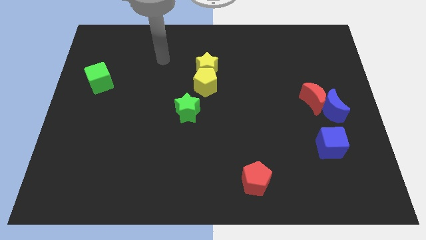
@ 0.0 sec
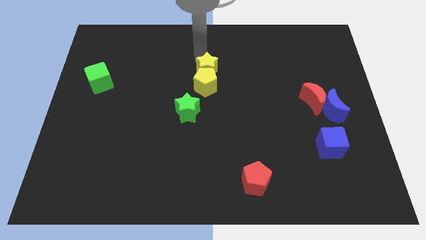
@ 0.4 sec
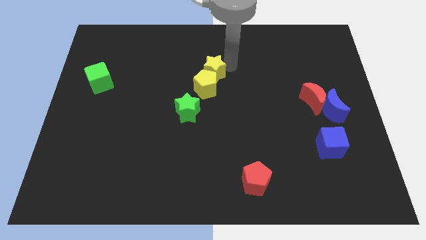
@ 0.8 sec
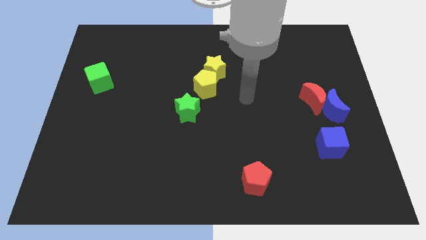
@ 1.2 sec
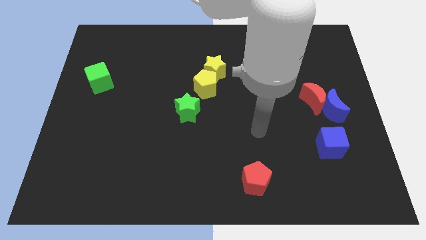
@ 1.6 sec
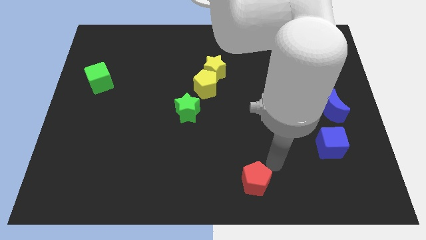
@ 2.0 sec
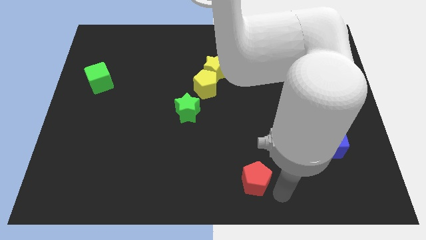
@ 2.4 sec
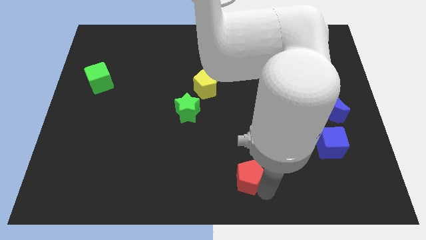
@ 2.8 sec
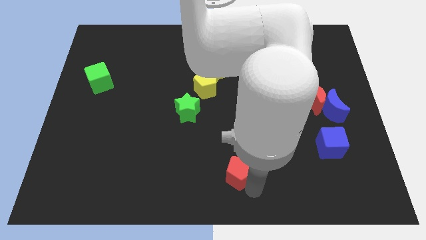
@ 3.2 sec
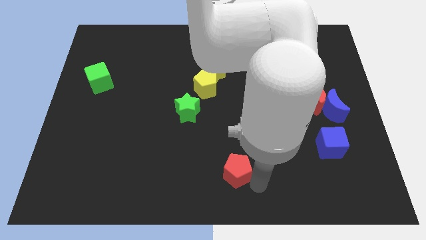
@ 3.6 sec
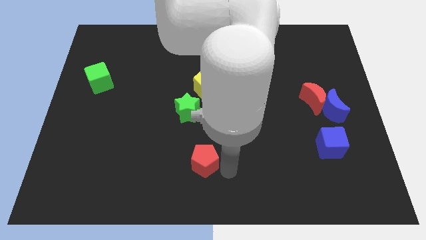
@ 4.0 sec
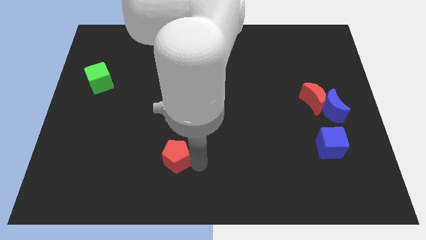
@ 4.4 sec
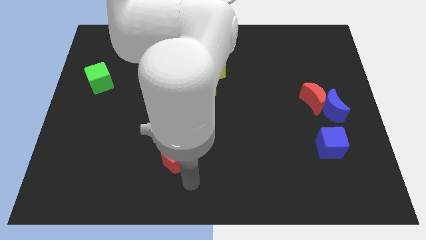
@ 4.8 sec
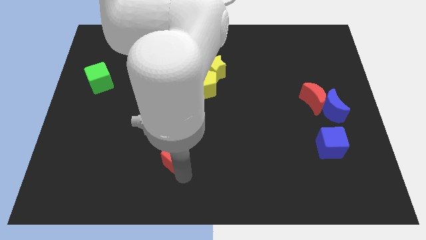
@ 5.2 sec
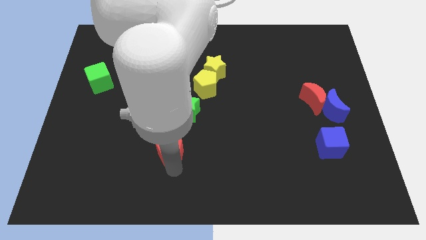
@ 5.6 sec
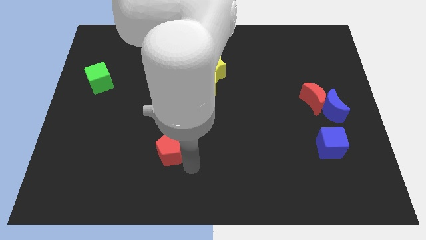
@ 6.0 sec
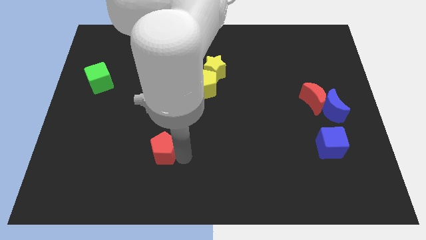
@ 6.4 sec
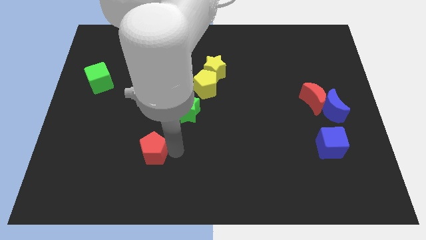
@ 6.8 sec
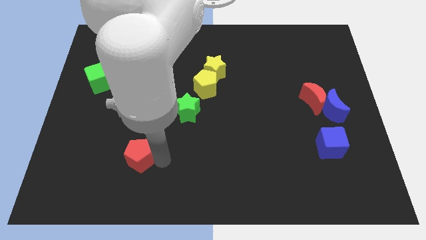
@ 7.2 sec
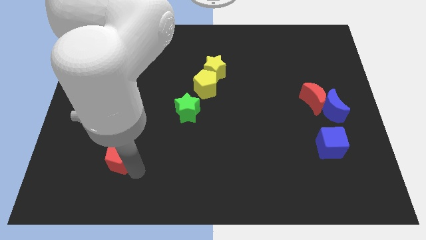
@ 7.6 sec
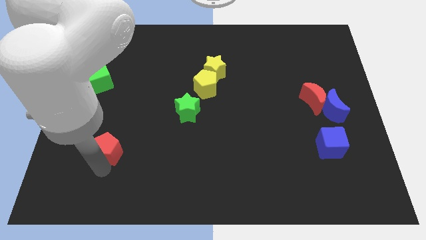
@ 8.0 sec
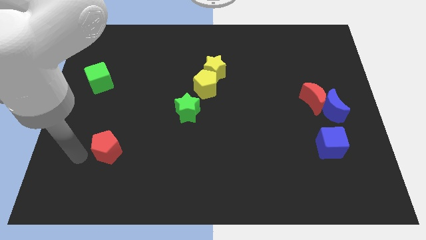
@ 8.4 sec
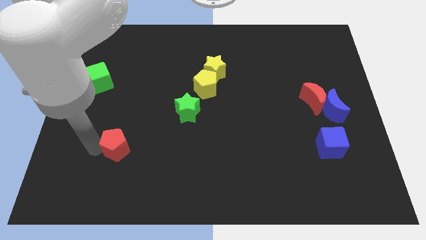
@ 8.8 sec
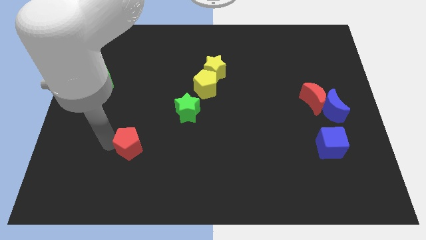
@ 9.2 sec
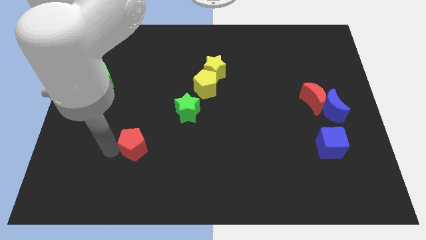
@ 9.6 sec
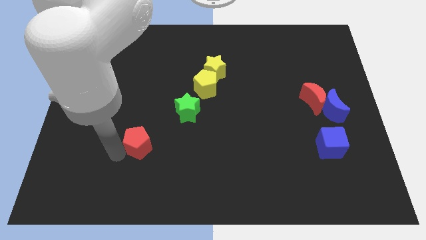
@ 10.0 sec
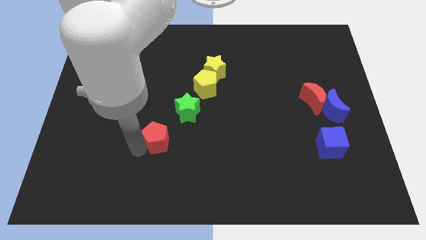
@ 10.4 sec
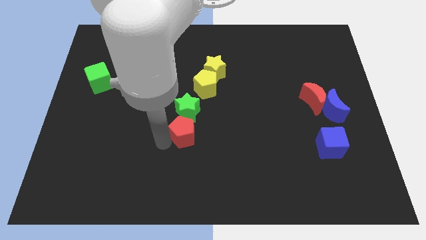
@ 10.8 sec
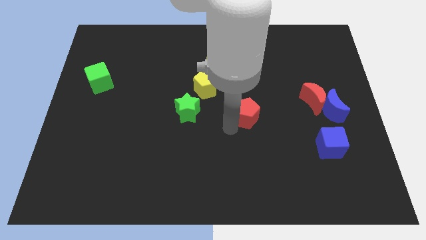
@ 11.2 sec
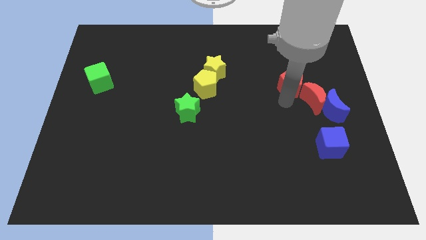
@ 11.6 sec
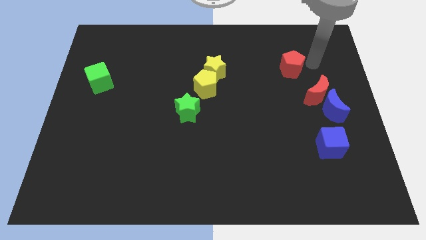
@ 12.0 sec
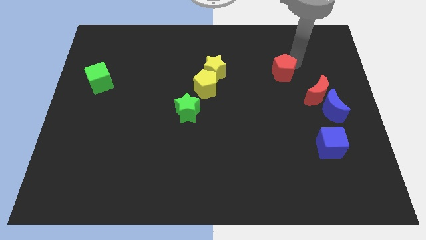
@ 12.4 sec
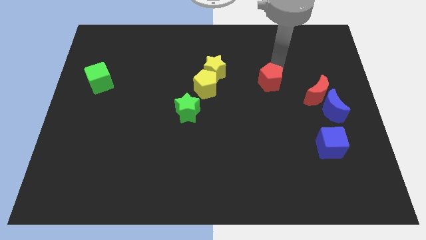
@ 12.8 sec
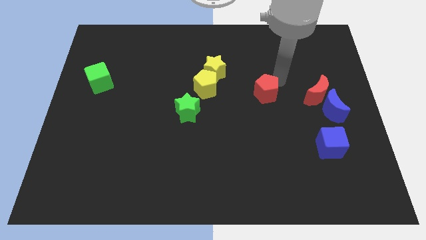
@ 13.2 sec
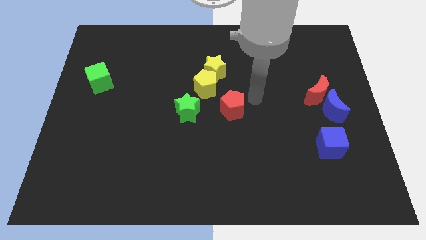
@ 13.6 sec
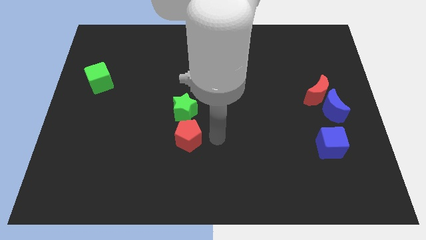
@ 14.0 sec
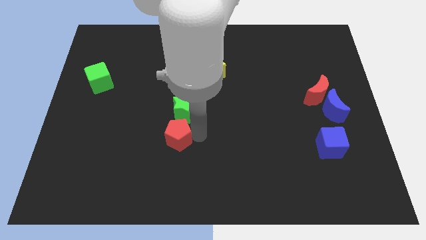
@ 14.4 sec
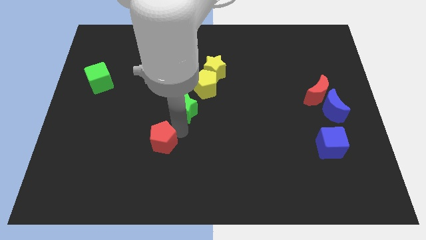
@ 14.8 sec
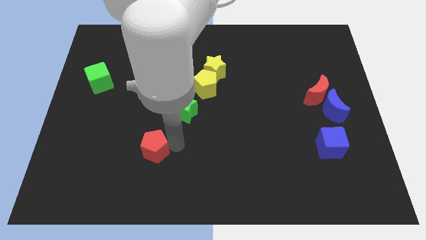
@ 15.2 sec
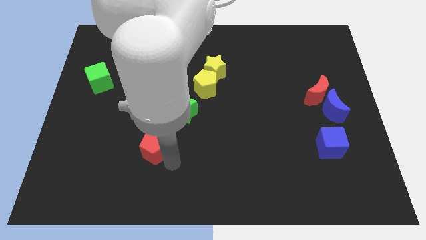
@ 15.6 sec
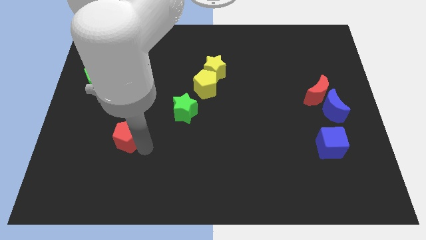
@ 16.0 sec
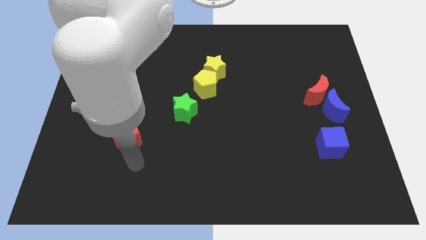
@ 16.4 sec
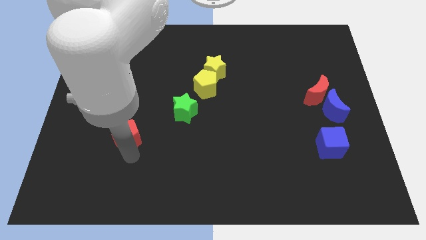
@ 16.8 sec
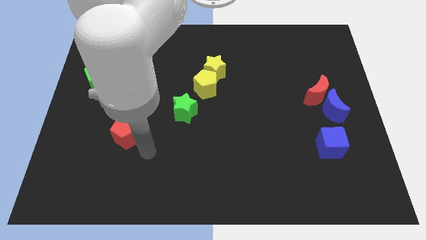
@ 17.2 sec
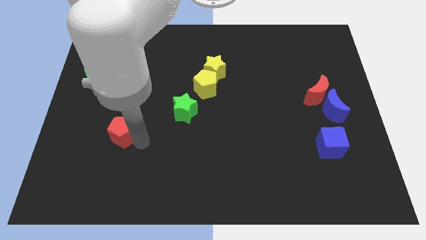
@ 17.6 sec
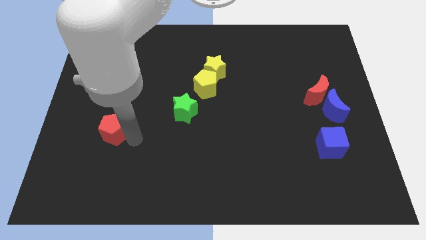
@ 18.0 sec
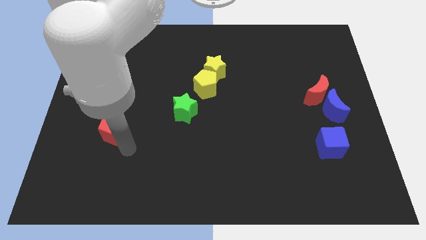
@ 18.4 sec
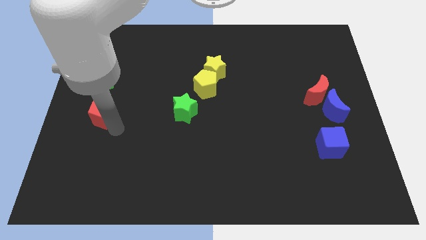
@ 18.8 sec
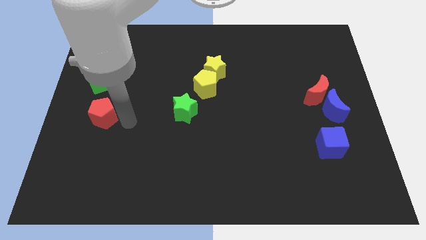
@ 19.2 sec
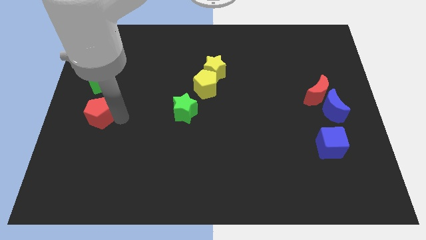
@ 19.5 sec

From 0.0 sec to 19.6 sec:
push the red pentagon to the left side of the board
